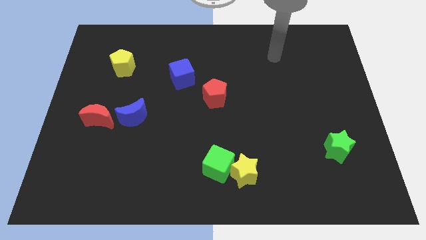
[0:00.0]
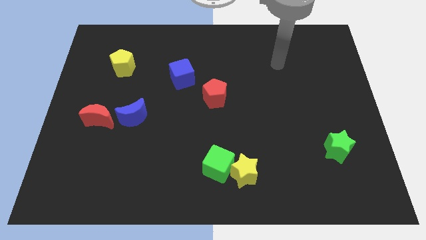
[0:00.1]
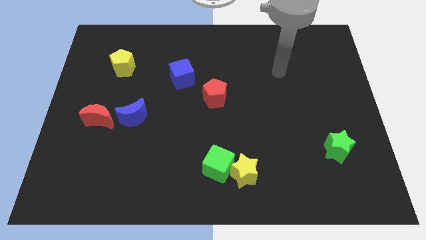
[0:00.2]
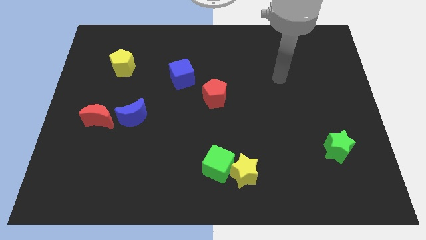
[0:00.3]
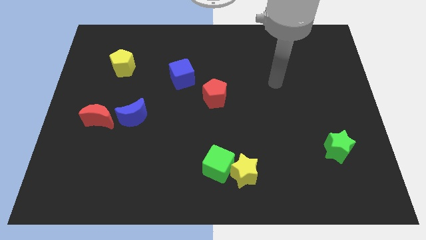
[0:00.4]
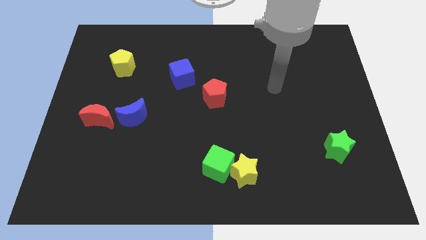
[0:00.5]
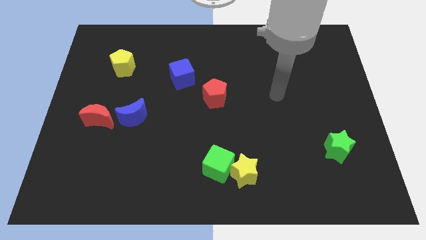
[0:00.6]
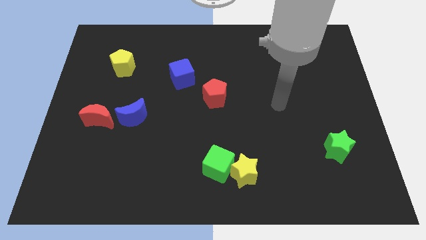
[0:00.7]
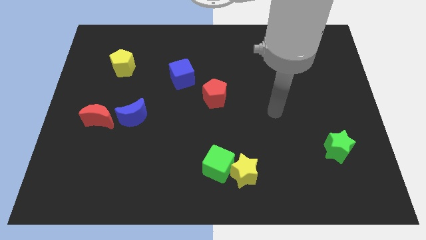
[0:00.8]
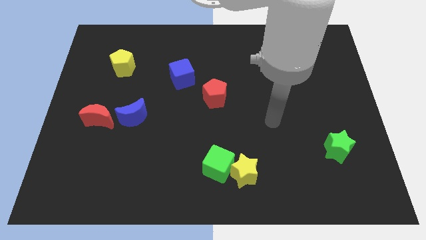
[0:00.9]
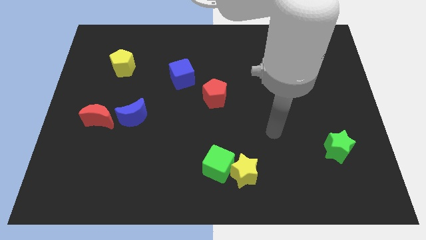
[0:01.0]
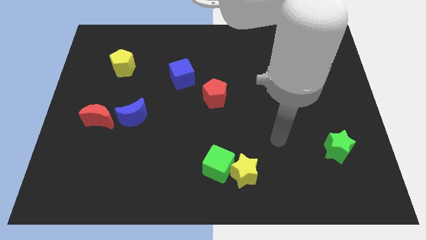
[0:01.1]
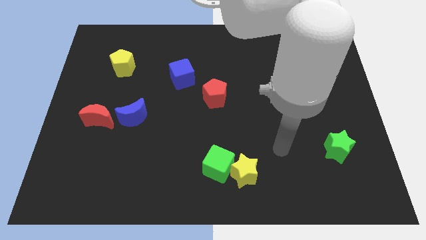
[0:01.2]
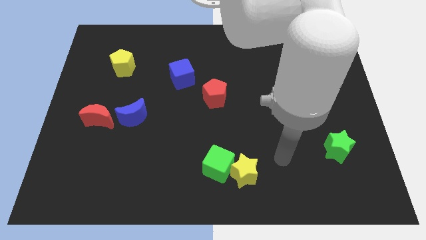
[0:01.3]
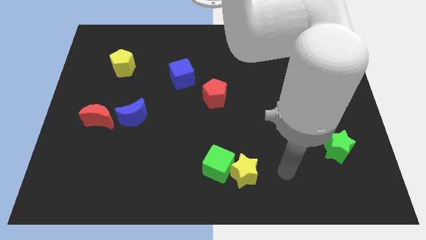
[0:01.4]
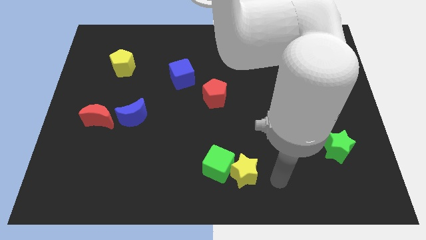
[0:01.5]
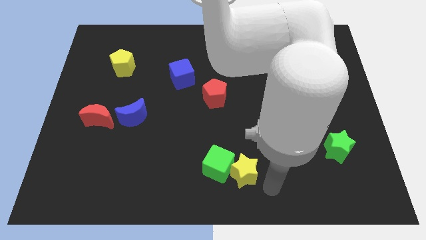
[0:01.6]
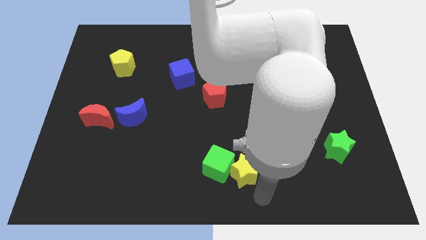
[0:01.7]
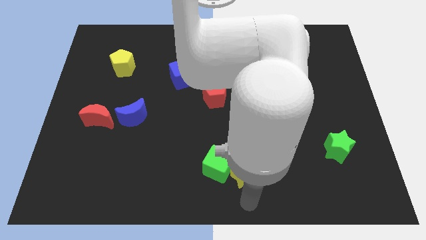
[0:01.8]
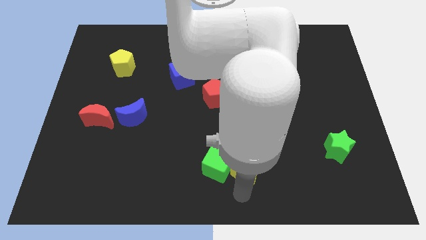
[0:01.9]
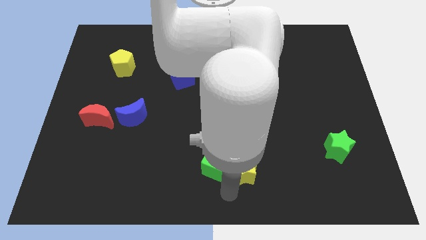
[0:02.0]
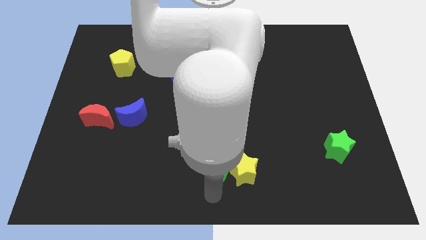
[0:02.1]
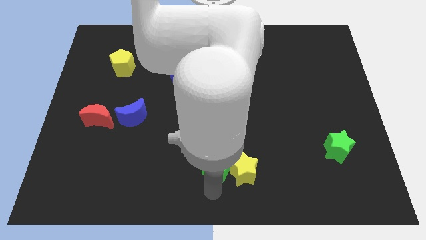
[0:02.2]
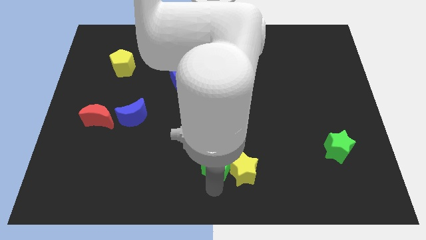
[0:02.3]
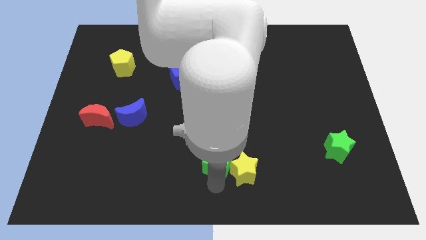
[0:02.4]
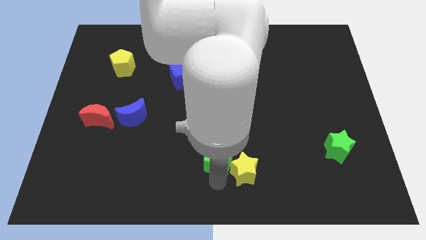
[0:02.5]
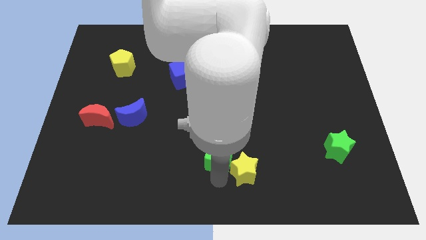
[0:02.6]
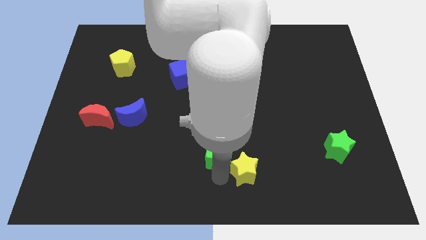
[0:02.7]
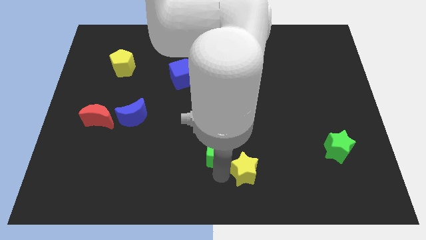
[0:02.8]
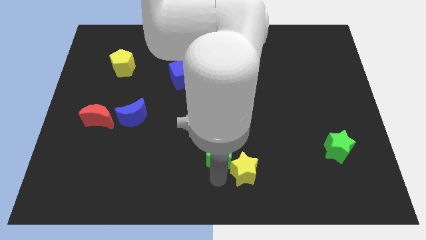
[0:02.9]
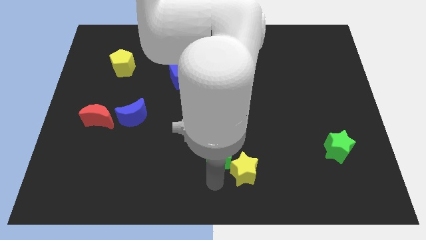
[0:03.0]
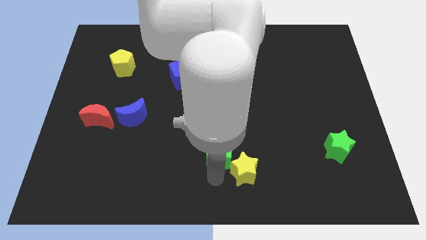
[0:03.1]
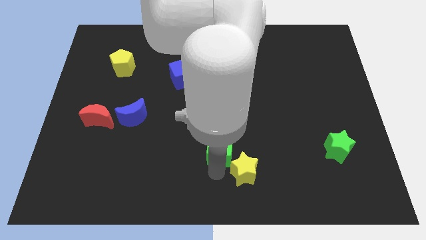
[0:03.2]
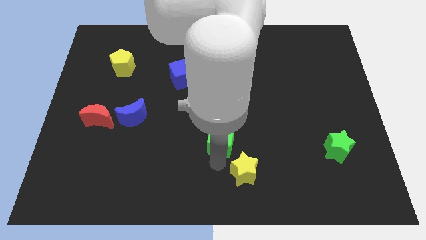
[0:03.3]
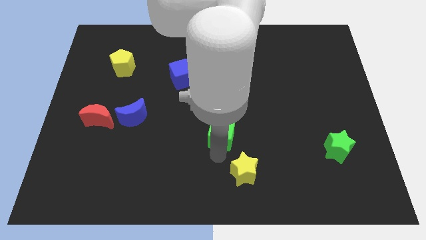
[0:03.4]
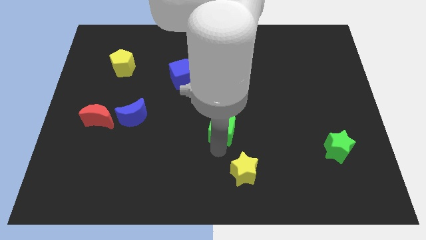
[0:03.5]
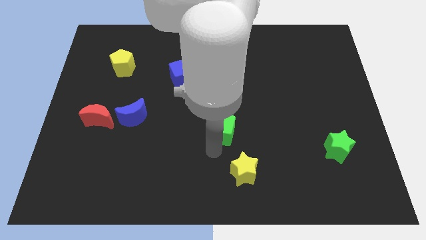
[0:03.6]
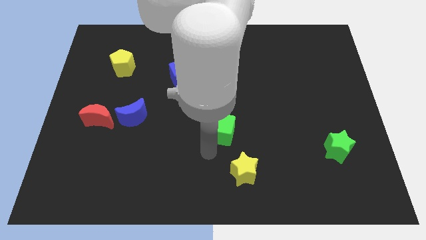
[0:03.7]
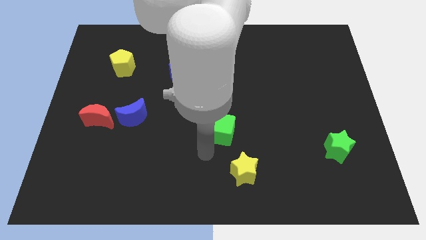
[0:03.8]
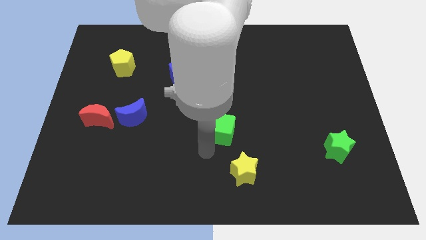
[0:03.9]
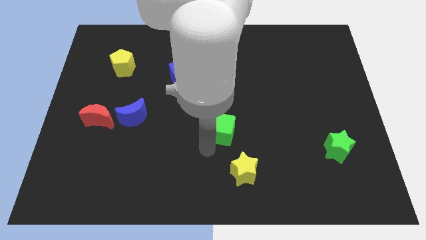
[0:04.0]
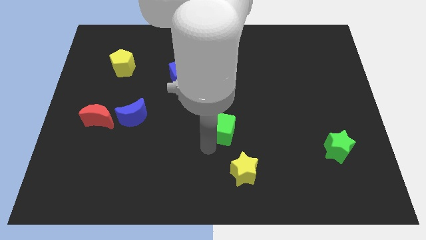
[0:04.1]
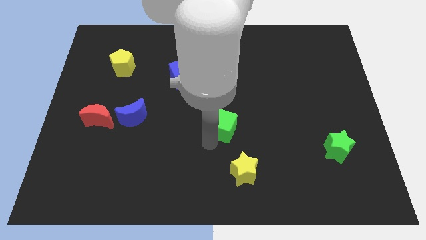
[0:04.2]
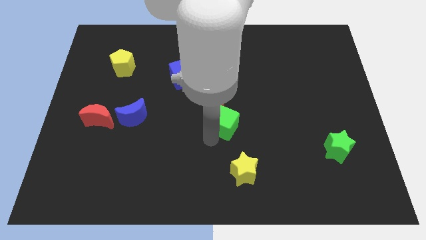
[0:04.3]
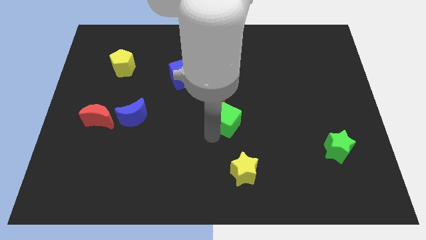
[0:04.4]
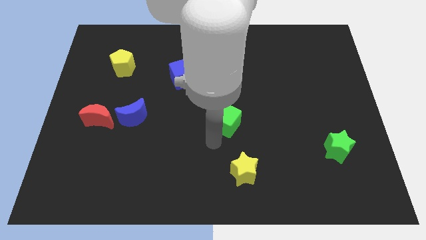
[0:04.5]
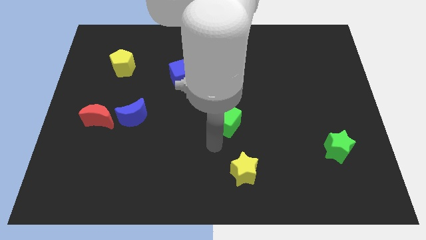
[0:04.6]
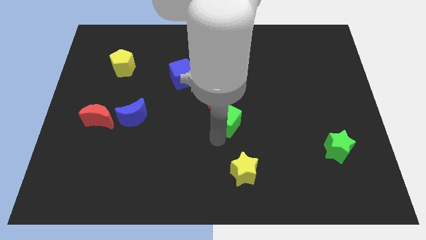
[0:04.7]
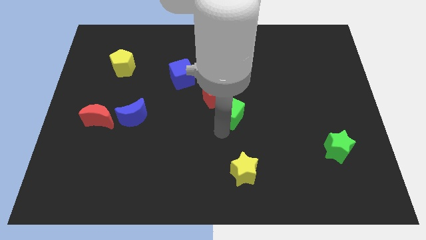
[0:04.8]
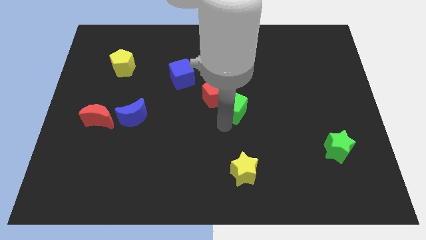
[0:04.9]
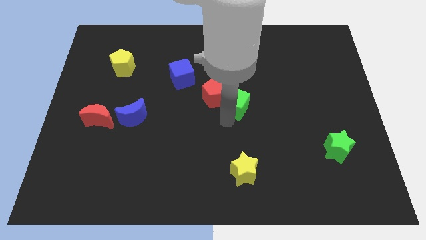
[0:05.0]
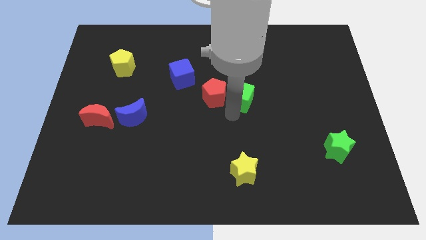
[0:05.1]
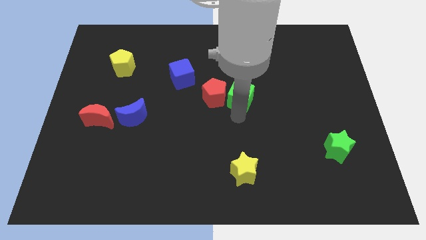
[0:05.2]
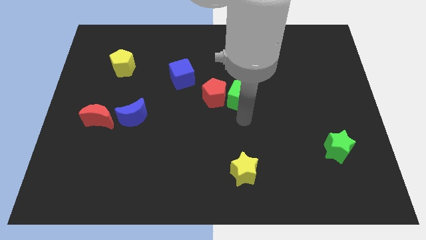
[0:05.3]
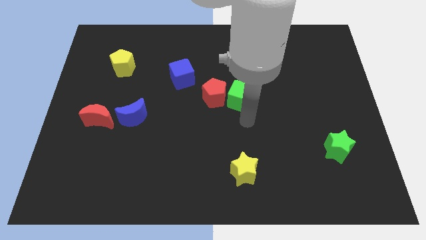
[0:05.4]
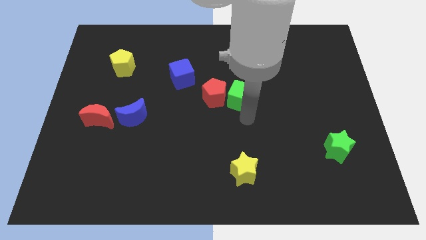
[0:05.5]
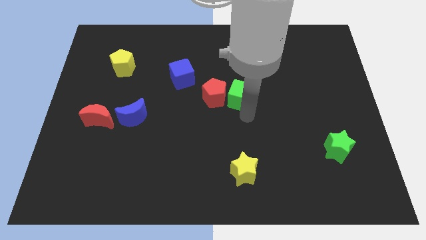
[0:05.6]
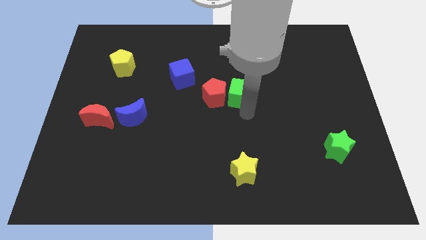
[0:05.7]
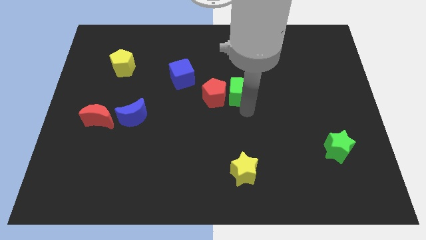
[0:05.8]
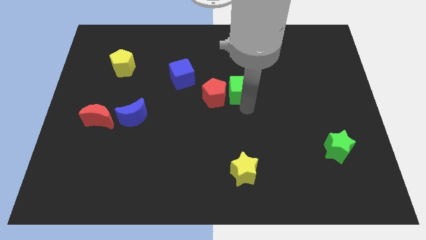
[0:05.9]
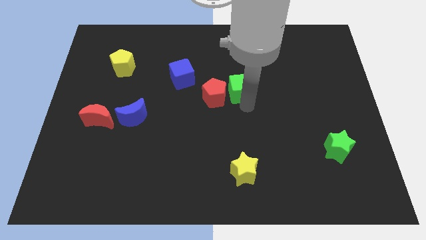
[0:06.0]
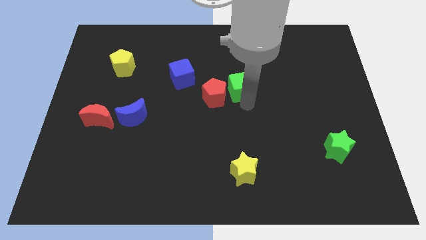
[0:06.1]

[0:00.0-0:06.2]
push the green cube upwards

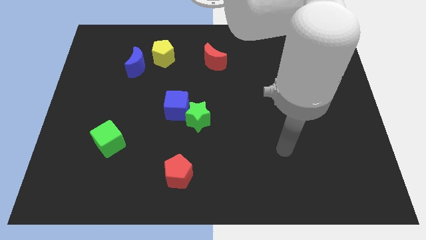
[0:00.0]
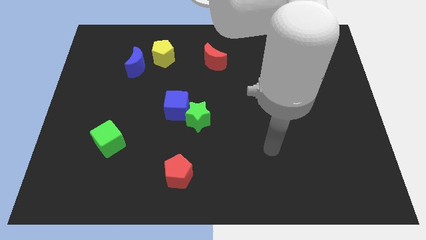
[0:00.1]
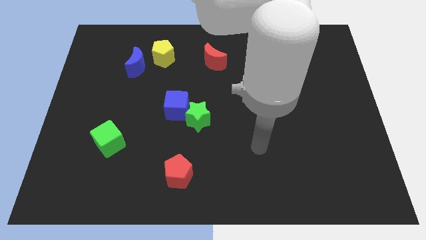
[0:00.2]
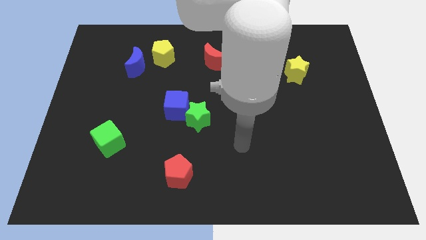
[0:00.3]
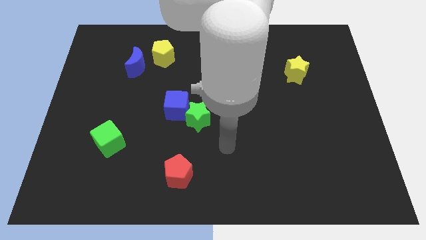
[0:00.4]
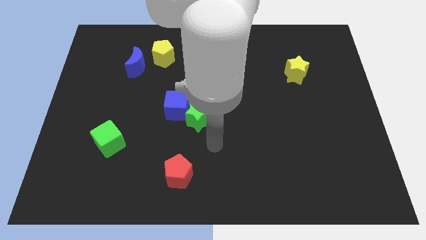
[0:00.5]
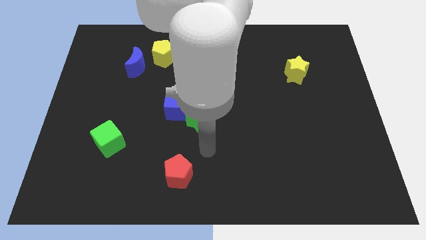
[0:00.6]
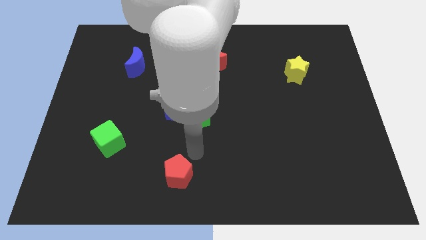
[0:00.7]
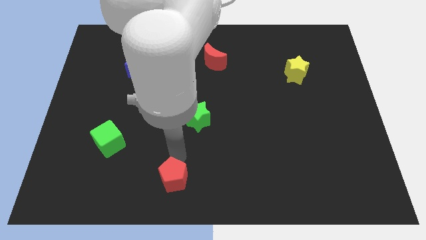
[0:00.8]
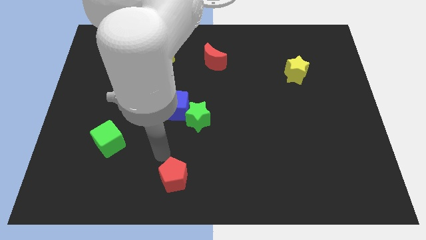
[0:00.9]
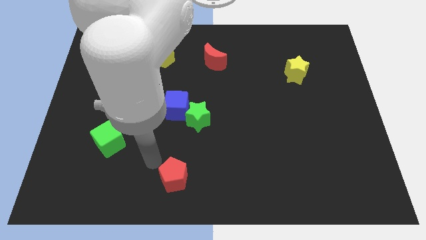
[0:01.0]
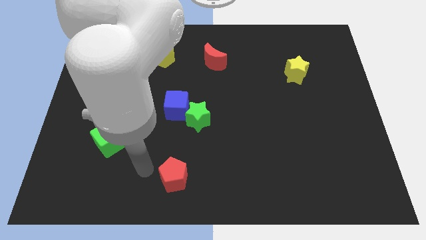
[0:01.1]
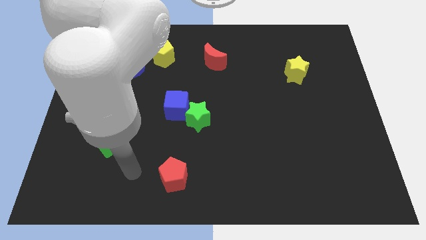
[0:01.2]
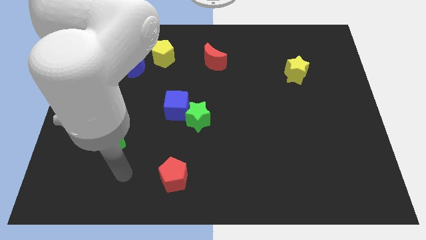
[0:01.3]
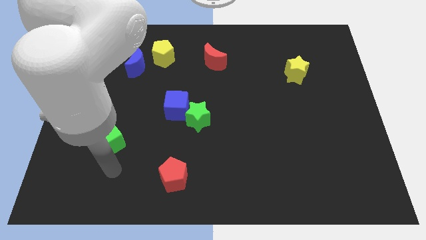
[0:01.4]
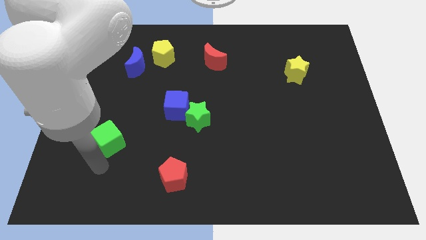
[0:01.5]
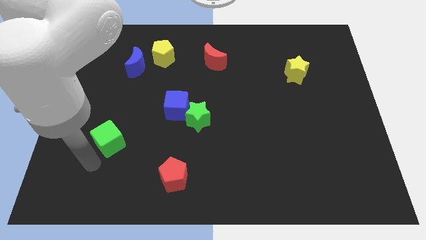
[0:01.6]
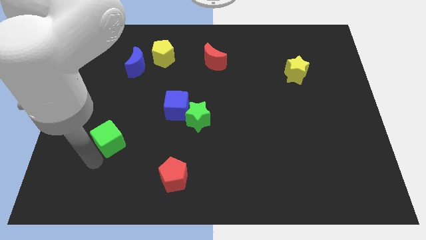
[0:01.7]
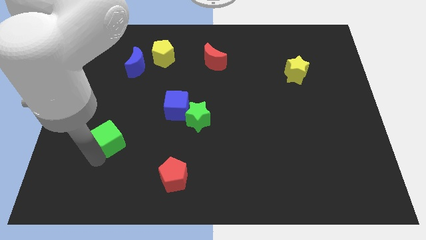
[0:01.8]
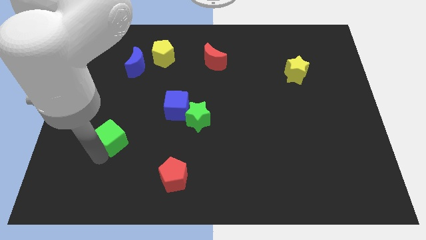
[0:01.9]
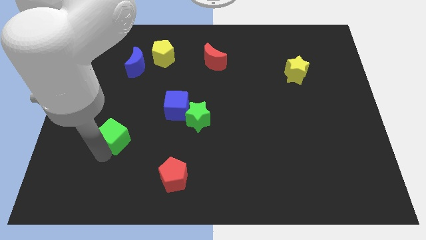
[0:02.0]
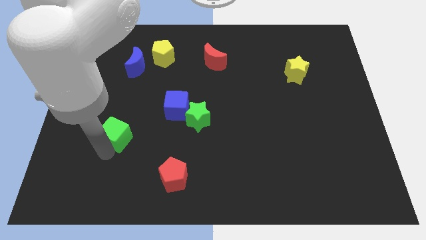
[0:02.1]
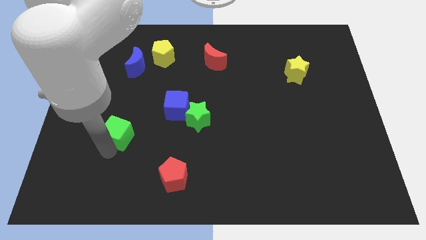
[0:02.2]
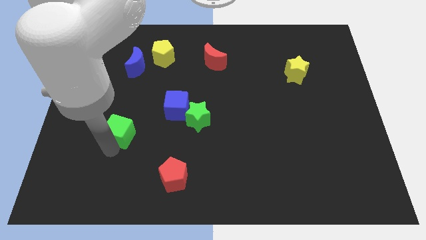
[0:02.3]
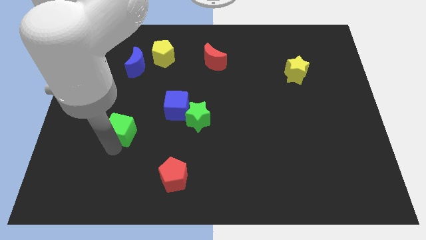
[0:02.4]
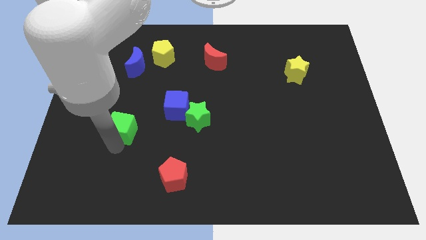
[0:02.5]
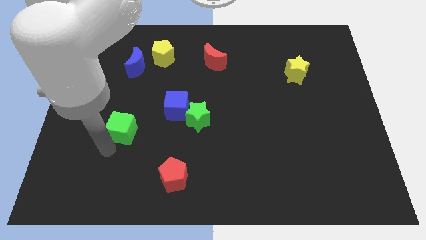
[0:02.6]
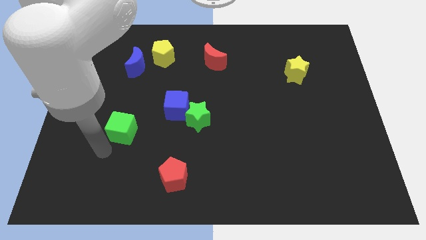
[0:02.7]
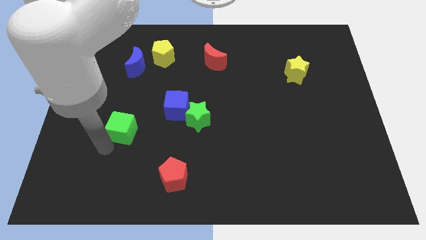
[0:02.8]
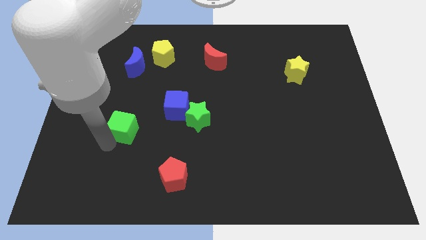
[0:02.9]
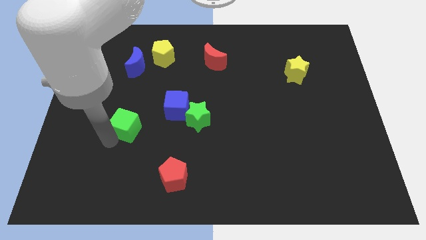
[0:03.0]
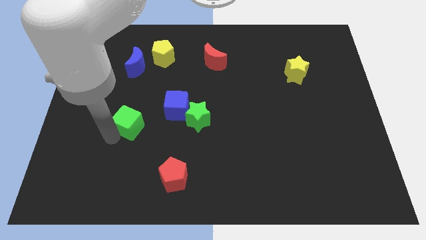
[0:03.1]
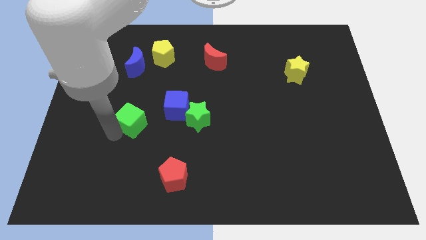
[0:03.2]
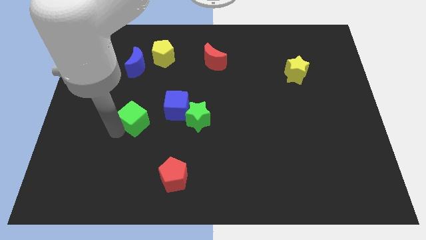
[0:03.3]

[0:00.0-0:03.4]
slightly move the green cube upwards and to the right
